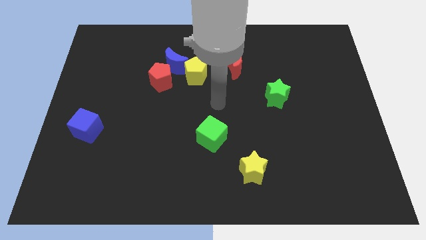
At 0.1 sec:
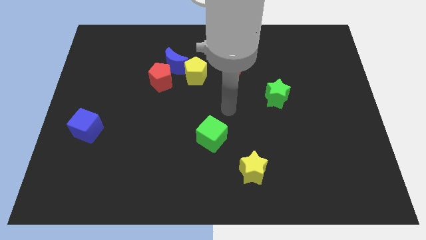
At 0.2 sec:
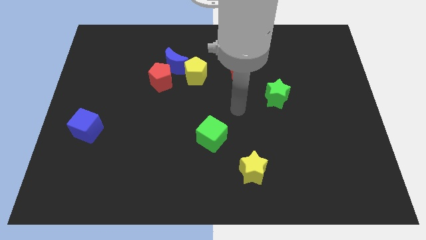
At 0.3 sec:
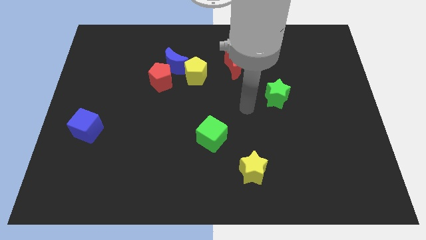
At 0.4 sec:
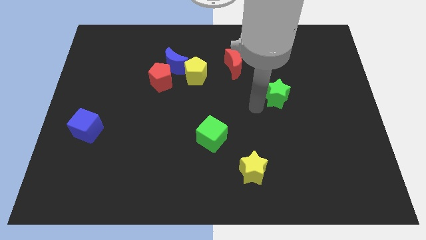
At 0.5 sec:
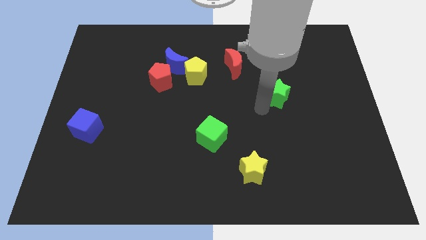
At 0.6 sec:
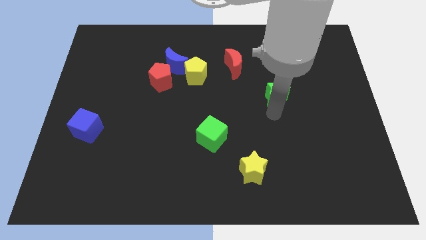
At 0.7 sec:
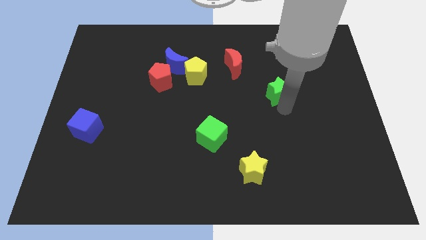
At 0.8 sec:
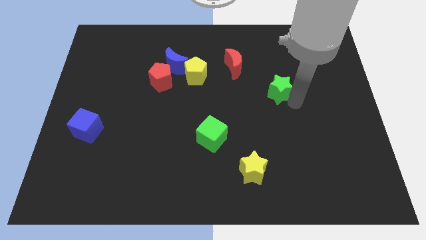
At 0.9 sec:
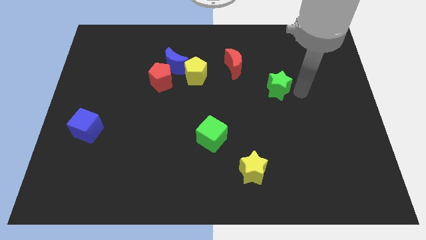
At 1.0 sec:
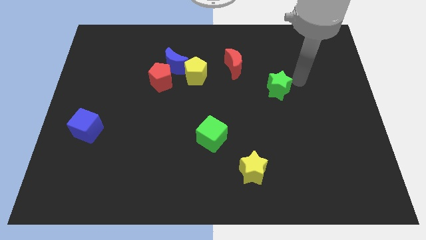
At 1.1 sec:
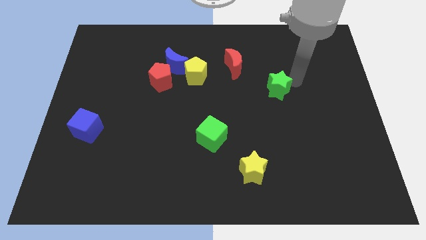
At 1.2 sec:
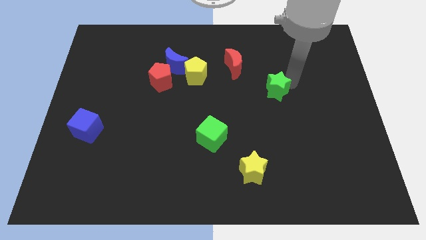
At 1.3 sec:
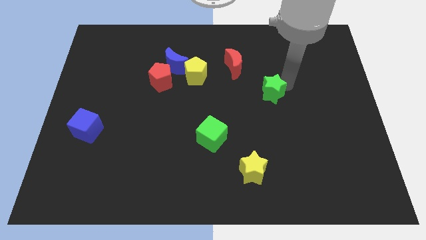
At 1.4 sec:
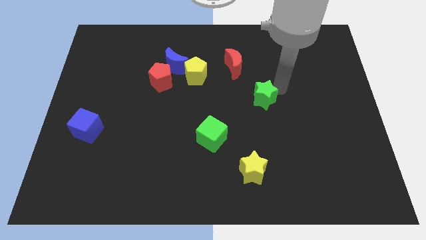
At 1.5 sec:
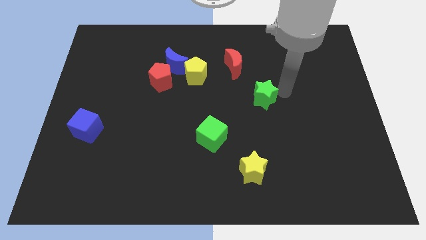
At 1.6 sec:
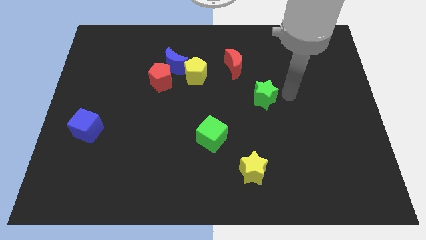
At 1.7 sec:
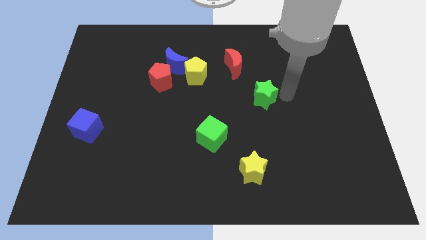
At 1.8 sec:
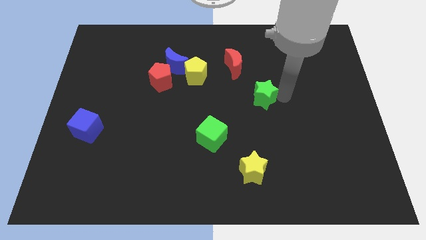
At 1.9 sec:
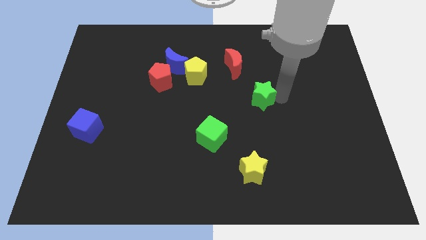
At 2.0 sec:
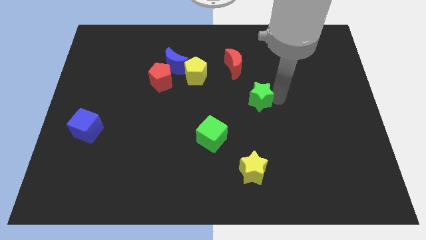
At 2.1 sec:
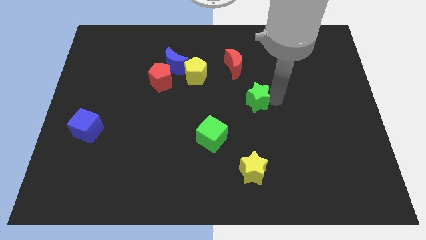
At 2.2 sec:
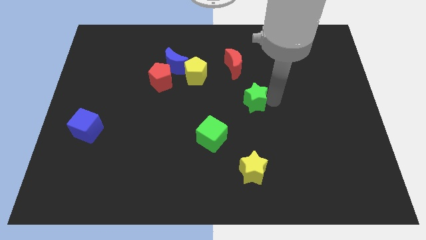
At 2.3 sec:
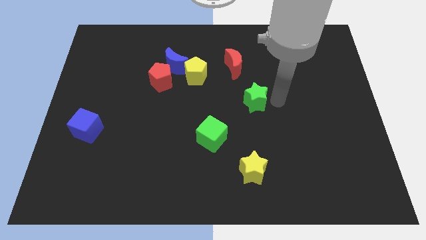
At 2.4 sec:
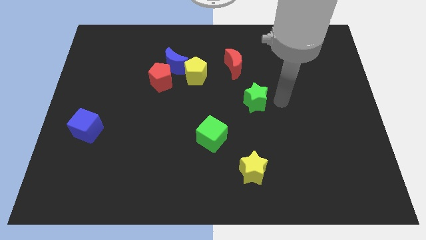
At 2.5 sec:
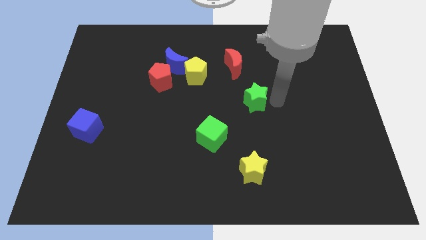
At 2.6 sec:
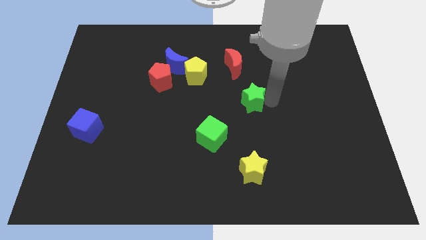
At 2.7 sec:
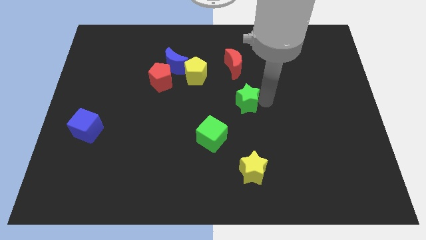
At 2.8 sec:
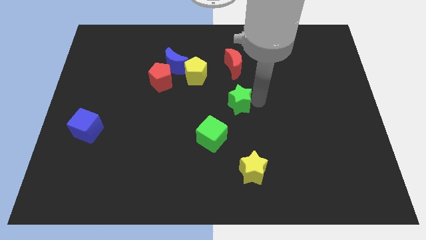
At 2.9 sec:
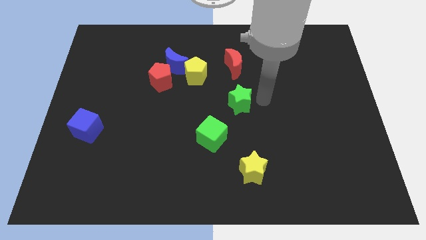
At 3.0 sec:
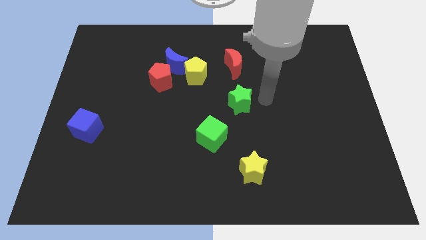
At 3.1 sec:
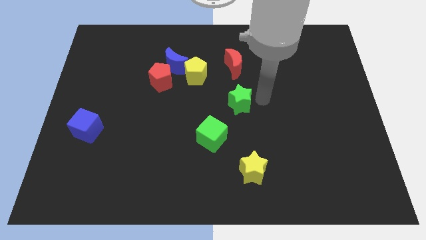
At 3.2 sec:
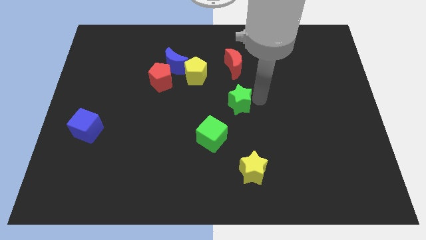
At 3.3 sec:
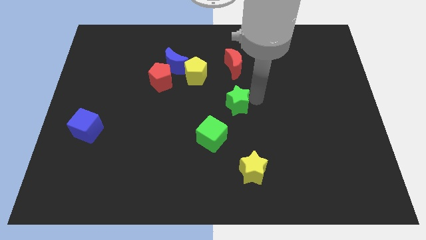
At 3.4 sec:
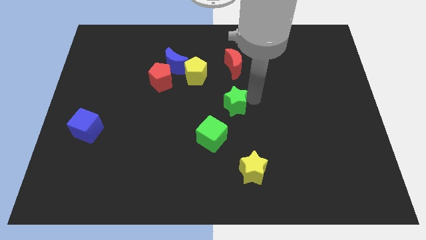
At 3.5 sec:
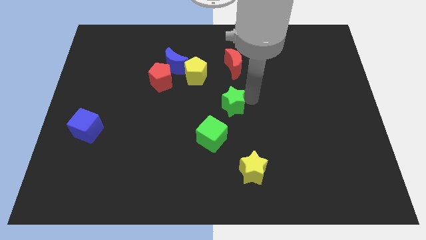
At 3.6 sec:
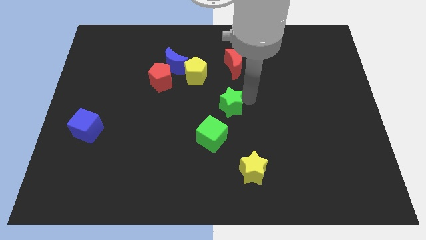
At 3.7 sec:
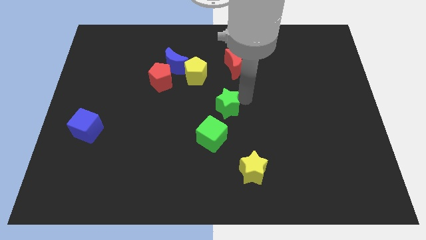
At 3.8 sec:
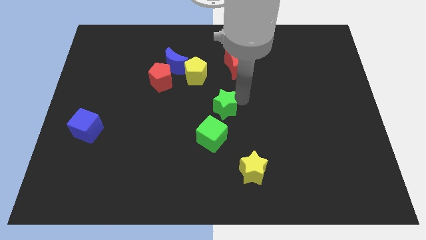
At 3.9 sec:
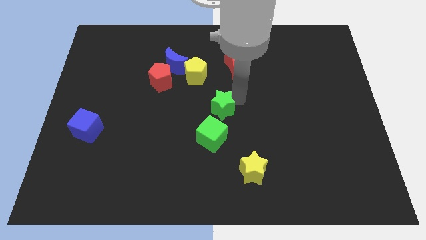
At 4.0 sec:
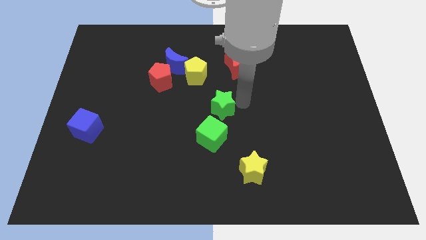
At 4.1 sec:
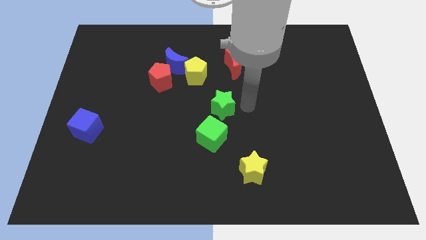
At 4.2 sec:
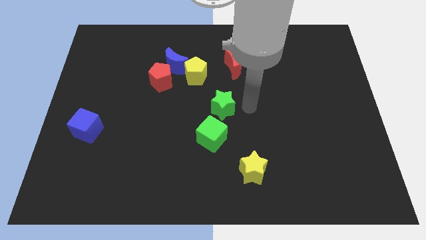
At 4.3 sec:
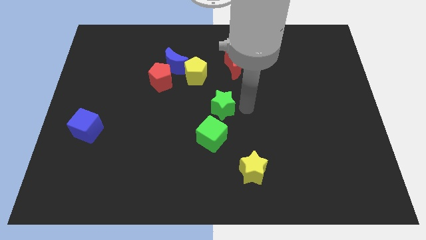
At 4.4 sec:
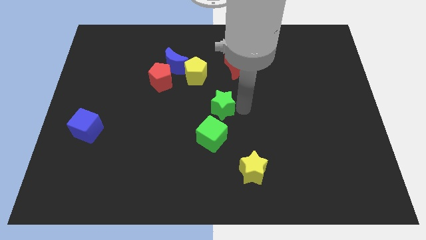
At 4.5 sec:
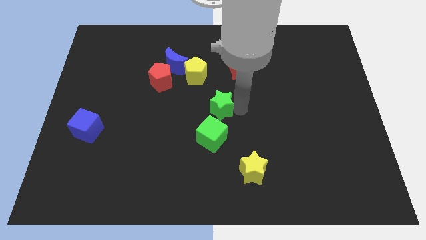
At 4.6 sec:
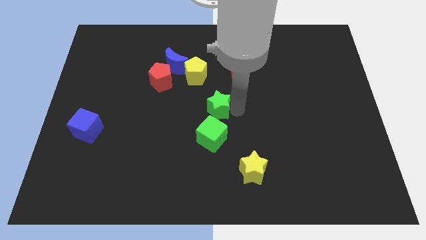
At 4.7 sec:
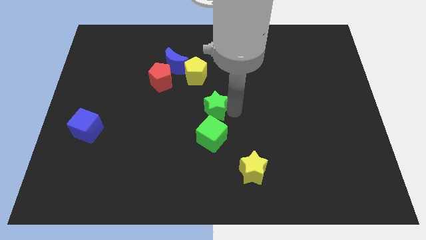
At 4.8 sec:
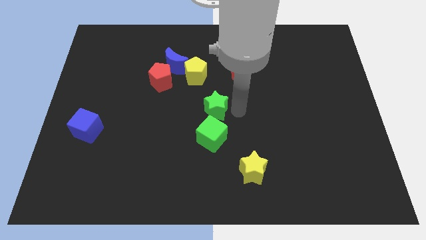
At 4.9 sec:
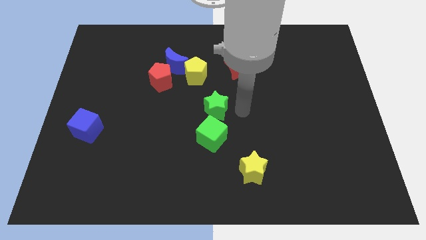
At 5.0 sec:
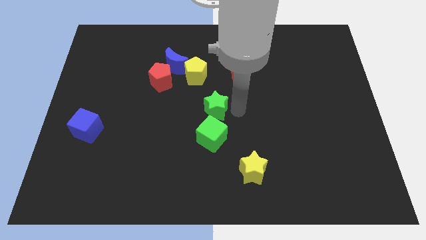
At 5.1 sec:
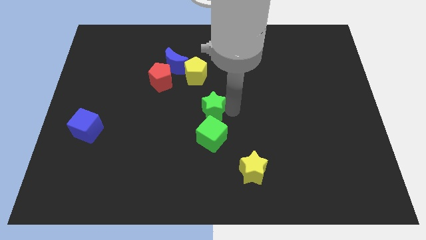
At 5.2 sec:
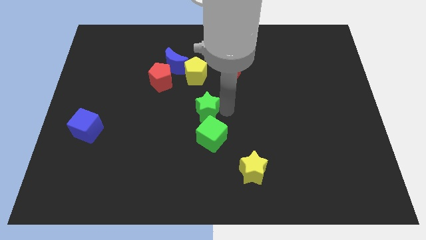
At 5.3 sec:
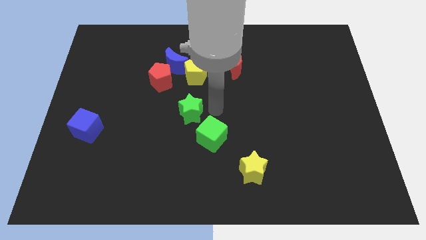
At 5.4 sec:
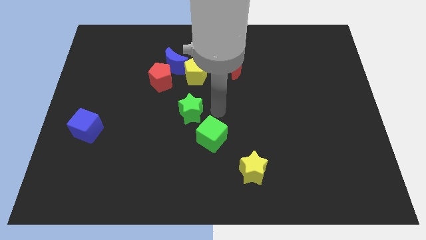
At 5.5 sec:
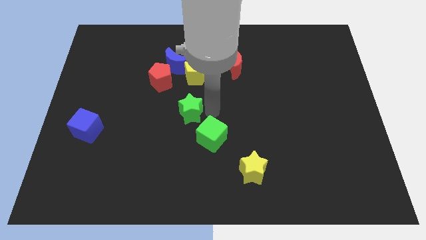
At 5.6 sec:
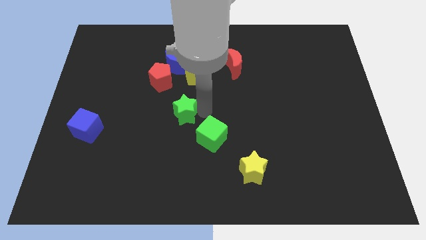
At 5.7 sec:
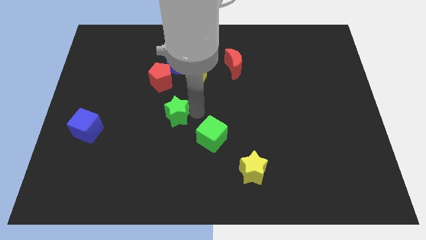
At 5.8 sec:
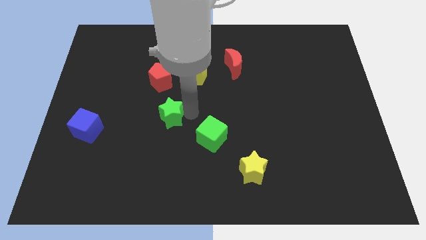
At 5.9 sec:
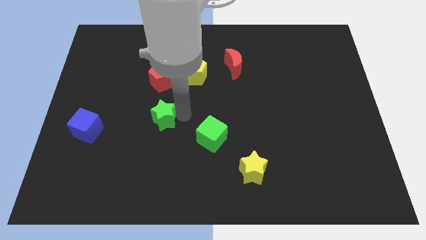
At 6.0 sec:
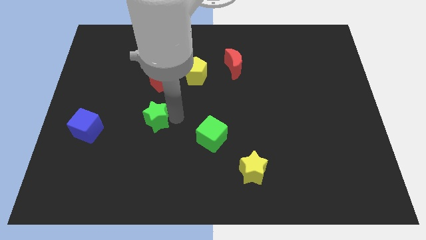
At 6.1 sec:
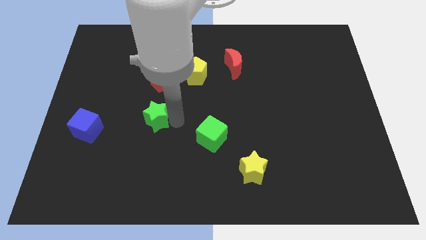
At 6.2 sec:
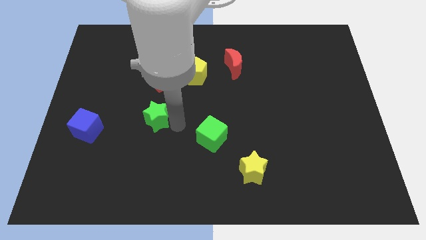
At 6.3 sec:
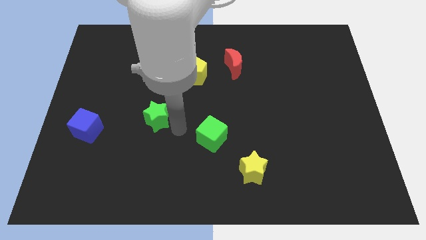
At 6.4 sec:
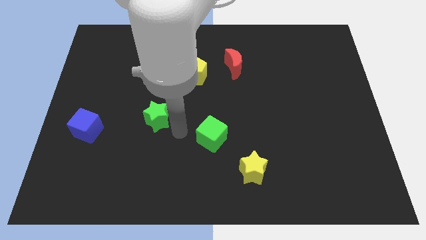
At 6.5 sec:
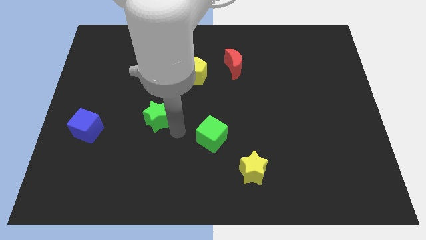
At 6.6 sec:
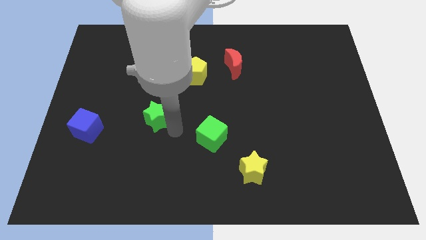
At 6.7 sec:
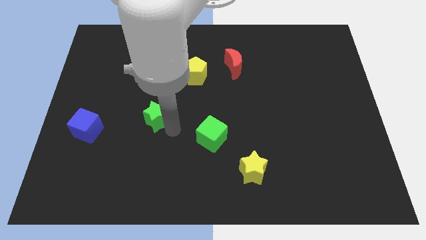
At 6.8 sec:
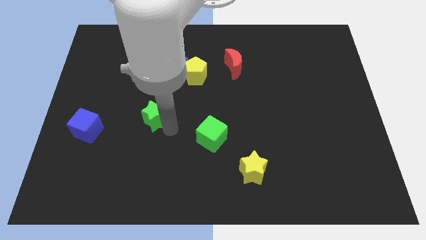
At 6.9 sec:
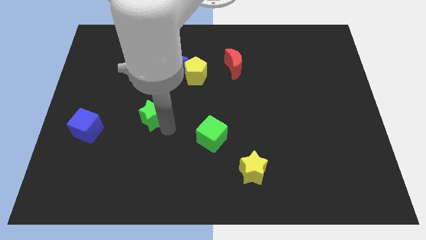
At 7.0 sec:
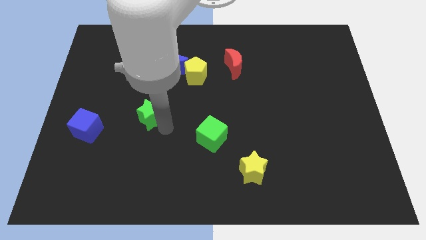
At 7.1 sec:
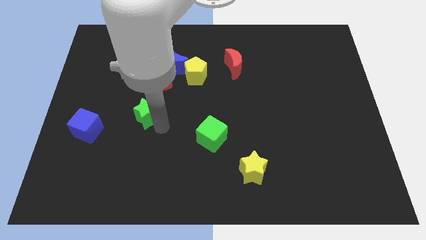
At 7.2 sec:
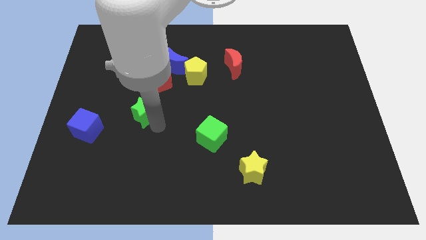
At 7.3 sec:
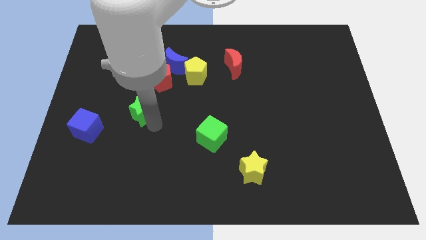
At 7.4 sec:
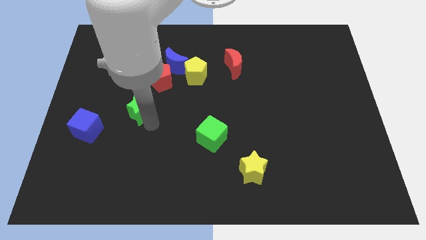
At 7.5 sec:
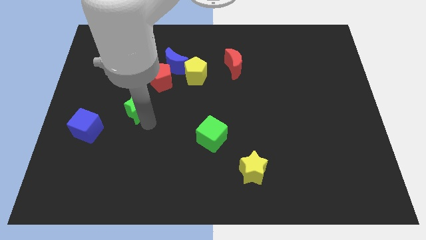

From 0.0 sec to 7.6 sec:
move the green star to the top right of the blue cube

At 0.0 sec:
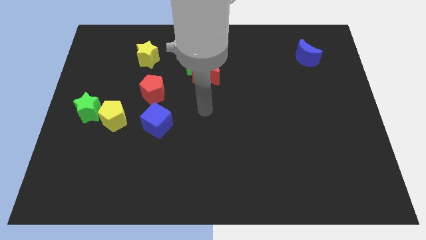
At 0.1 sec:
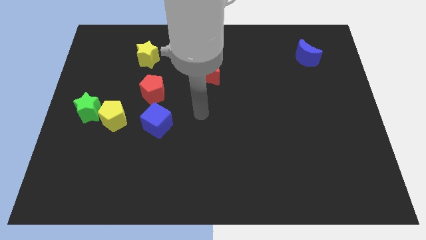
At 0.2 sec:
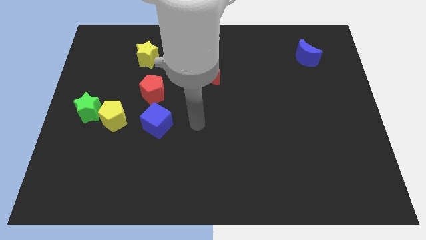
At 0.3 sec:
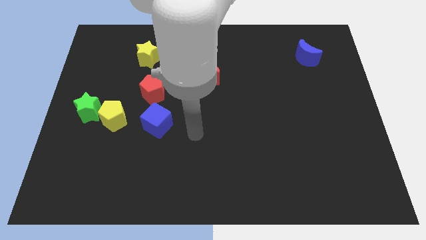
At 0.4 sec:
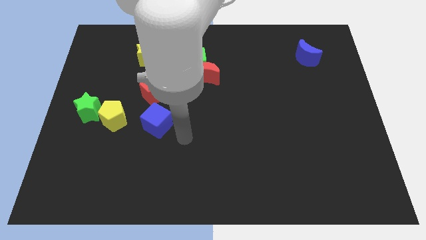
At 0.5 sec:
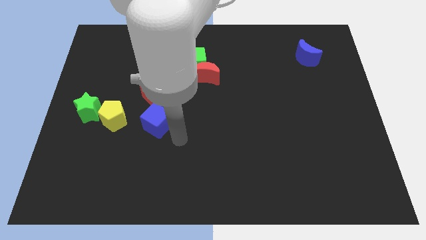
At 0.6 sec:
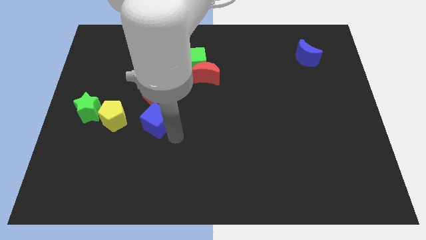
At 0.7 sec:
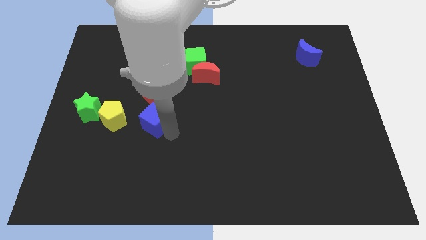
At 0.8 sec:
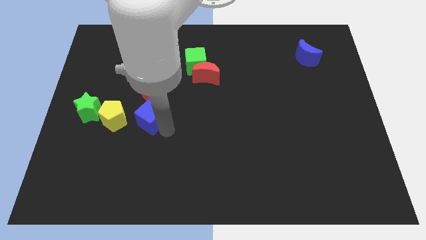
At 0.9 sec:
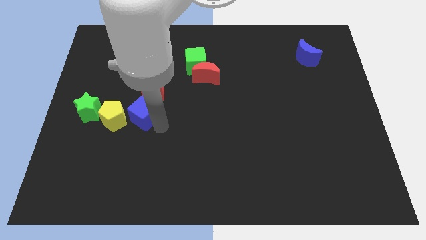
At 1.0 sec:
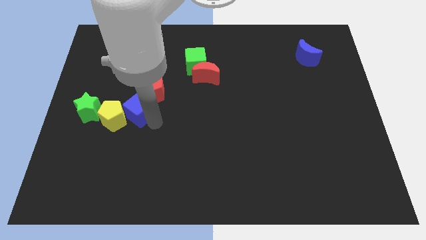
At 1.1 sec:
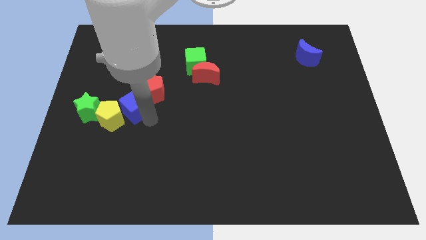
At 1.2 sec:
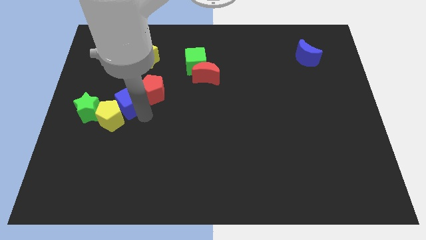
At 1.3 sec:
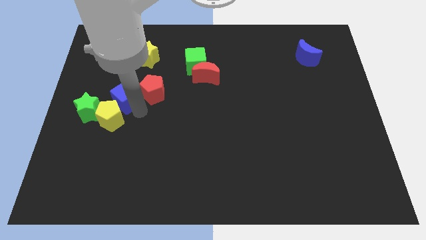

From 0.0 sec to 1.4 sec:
slide the blue cube diagonally up and to the right of the green star
